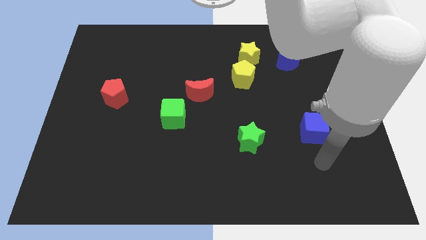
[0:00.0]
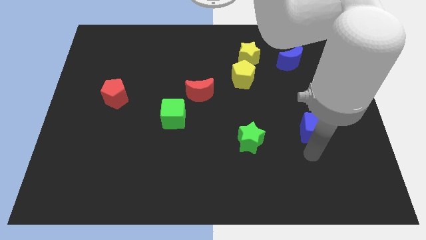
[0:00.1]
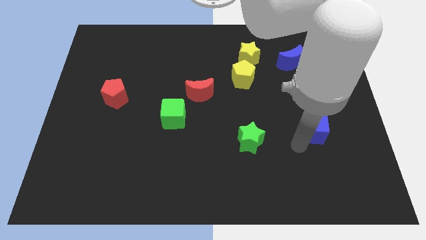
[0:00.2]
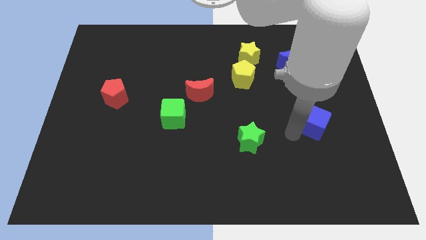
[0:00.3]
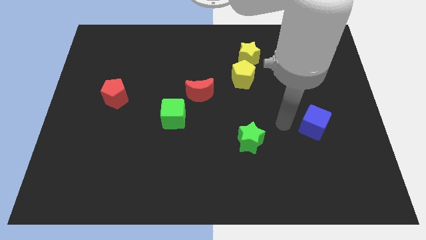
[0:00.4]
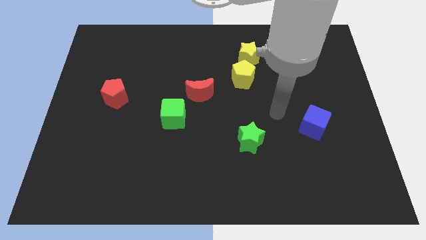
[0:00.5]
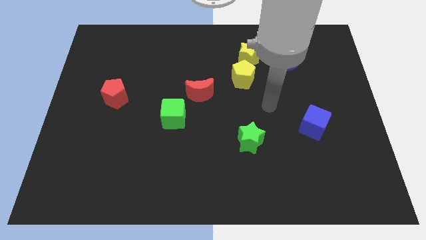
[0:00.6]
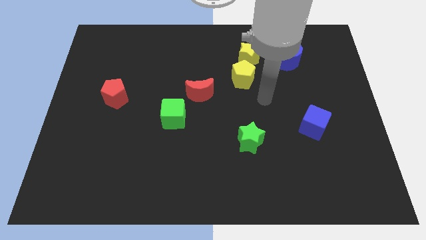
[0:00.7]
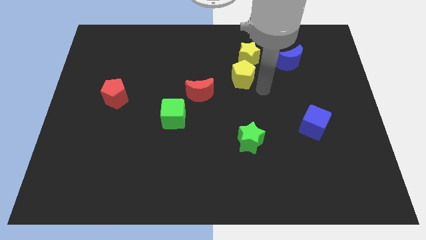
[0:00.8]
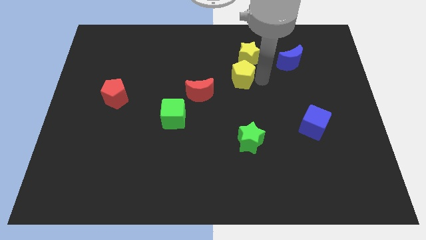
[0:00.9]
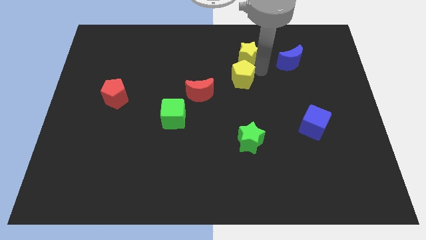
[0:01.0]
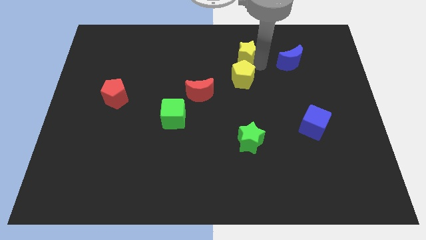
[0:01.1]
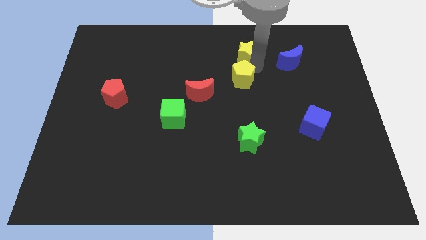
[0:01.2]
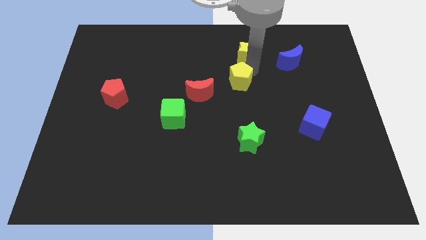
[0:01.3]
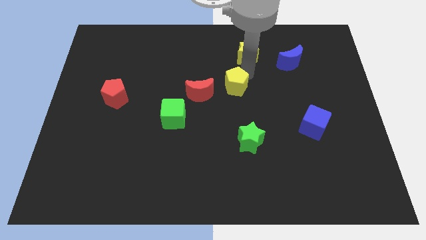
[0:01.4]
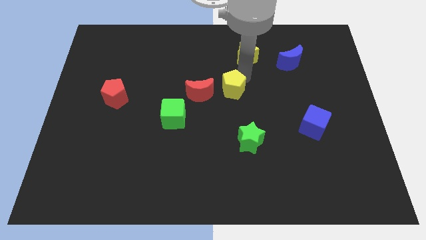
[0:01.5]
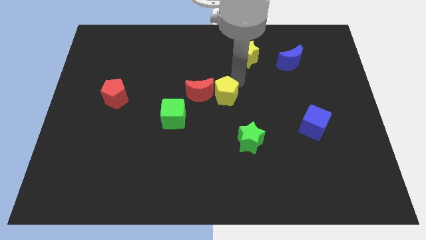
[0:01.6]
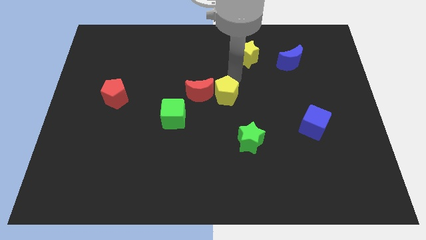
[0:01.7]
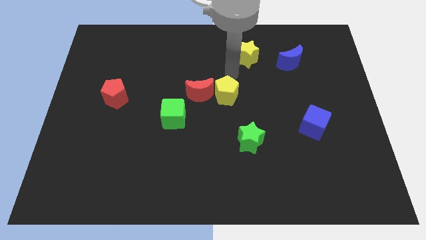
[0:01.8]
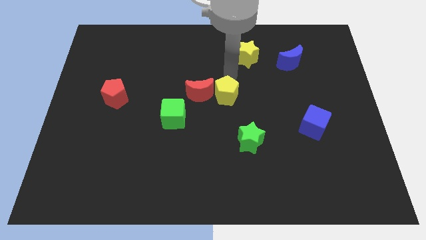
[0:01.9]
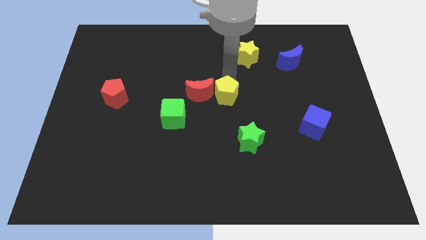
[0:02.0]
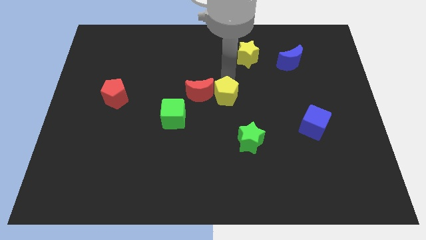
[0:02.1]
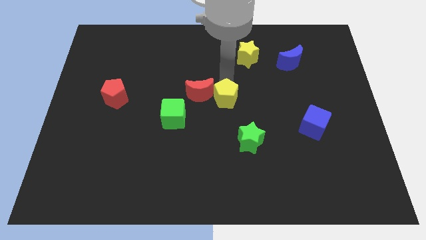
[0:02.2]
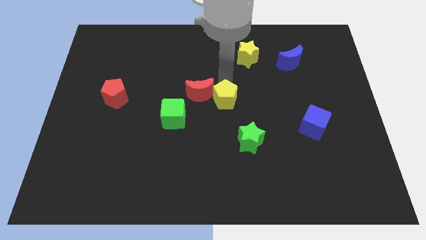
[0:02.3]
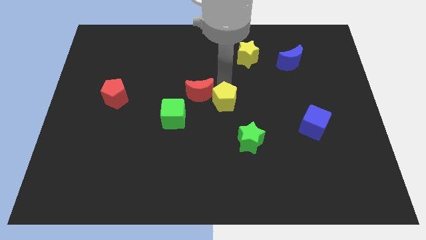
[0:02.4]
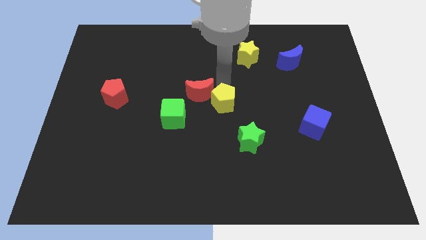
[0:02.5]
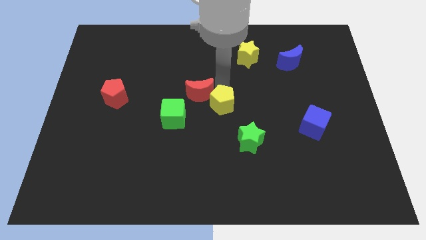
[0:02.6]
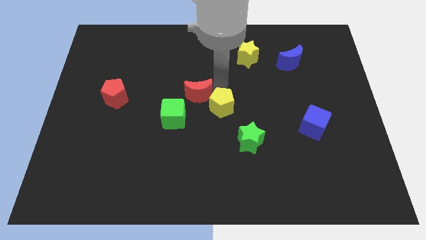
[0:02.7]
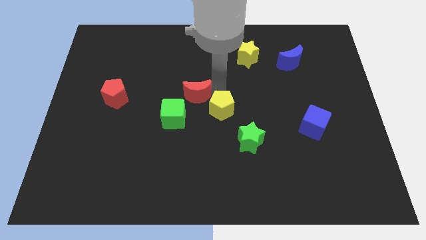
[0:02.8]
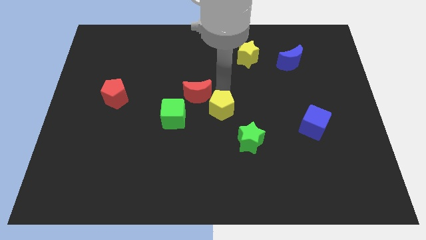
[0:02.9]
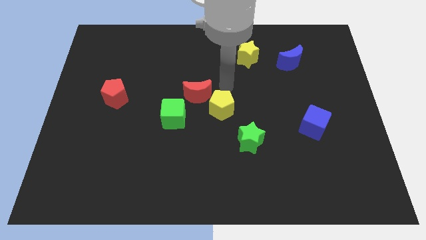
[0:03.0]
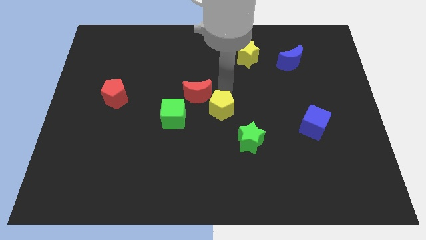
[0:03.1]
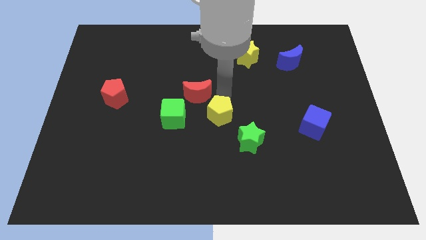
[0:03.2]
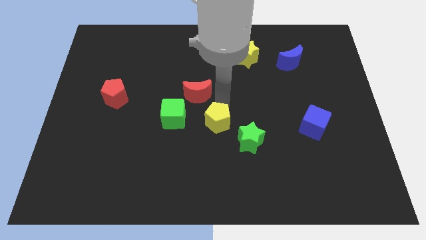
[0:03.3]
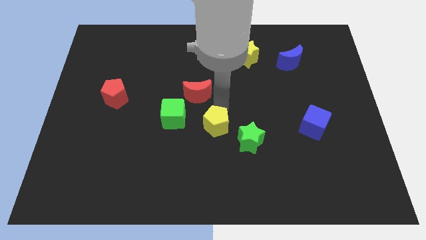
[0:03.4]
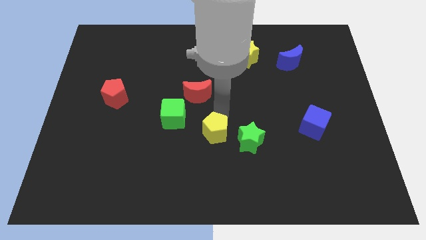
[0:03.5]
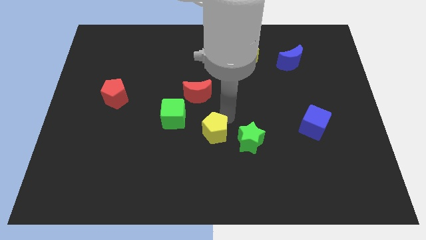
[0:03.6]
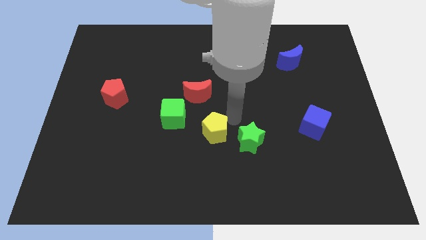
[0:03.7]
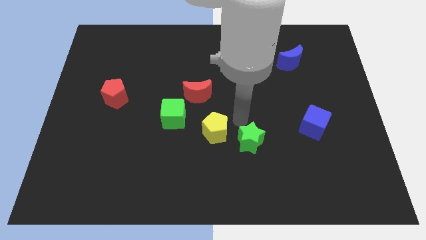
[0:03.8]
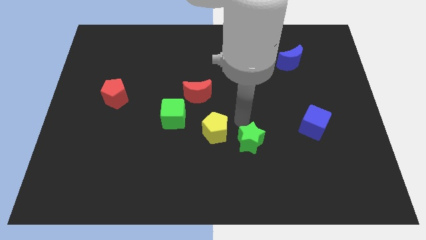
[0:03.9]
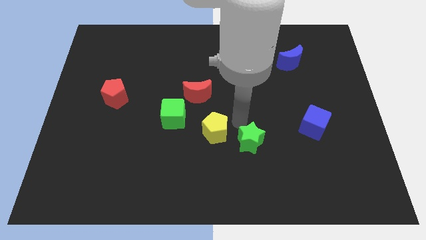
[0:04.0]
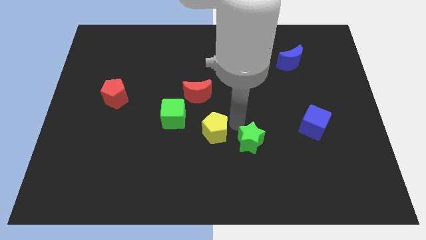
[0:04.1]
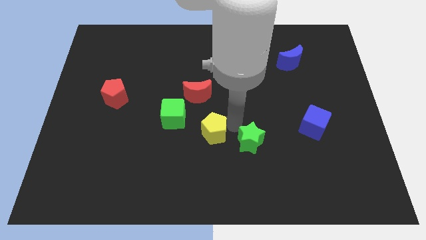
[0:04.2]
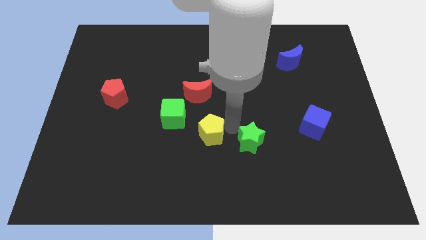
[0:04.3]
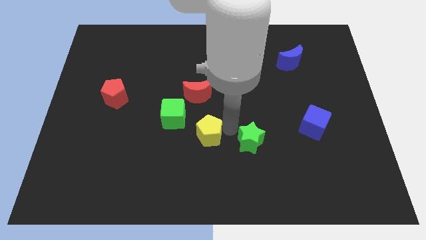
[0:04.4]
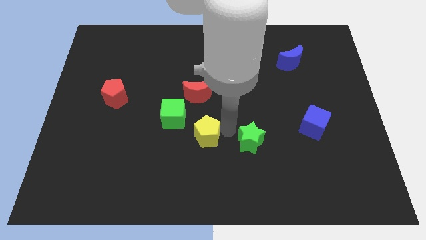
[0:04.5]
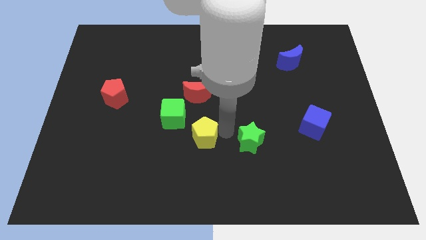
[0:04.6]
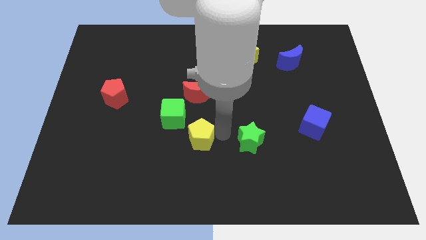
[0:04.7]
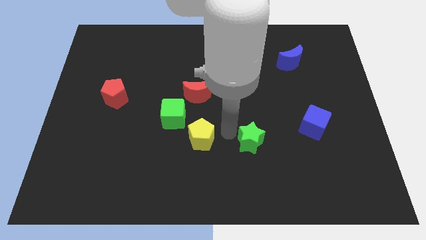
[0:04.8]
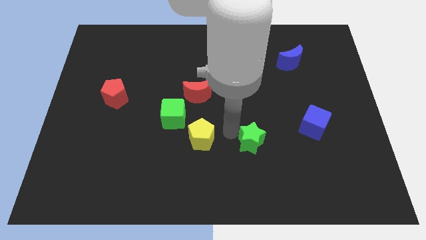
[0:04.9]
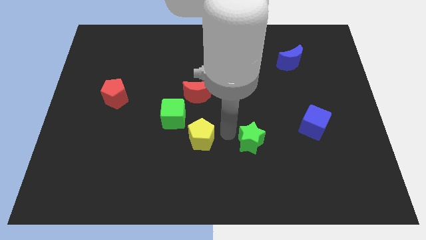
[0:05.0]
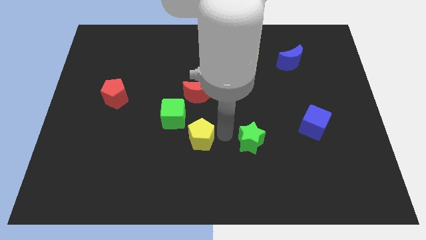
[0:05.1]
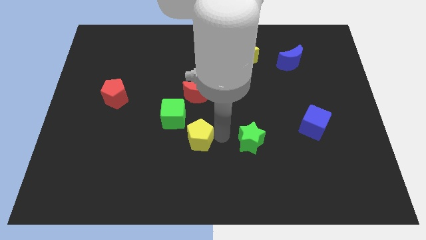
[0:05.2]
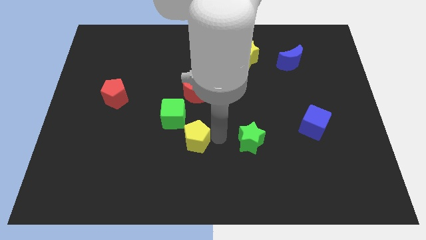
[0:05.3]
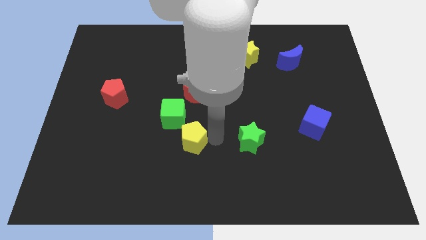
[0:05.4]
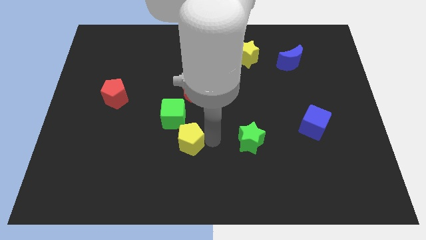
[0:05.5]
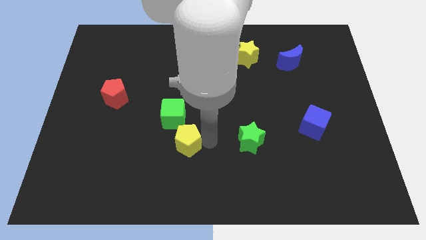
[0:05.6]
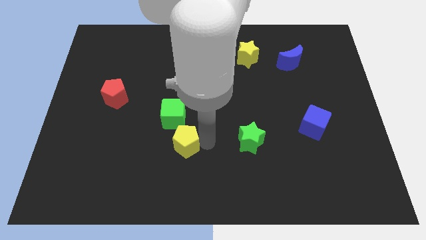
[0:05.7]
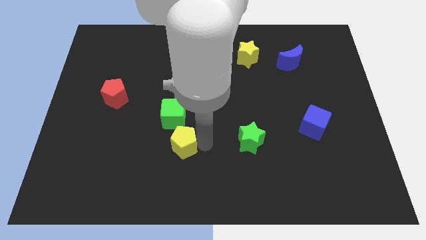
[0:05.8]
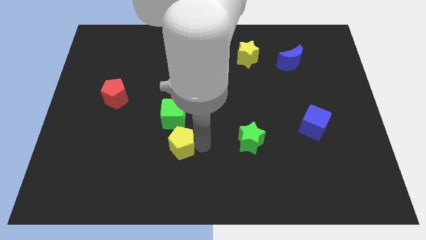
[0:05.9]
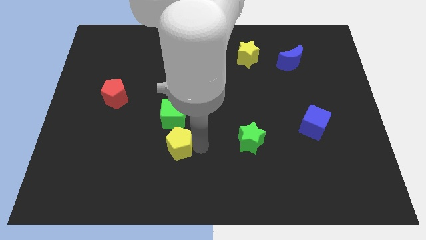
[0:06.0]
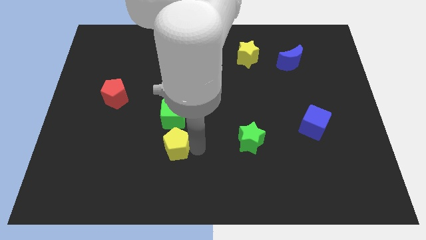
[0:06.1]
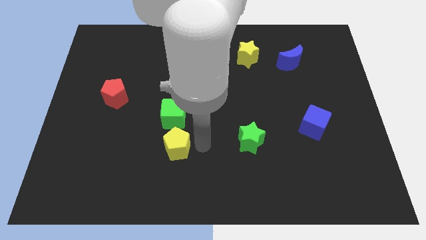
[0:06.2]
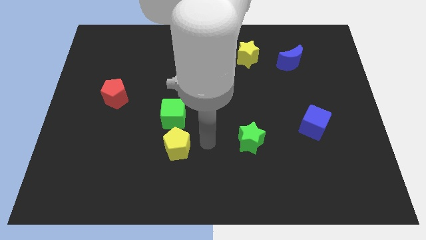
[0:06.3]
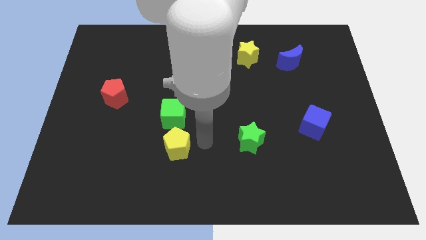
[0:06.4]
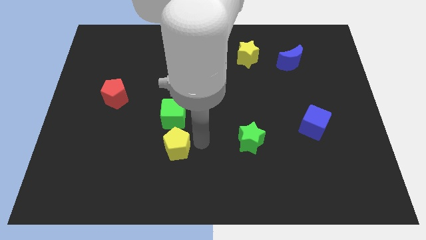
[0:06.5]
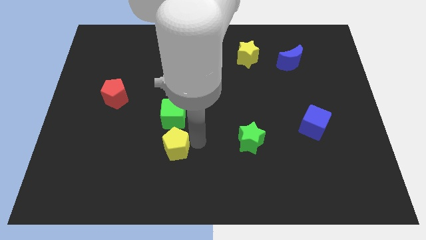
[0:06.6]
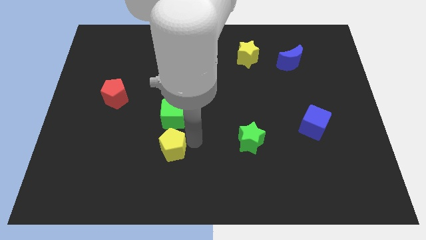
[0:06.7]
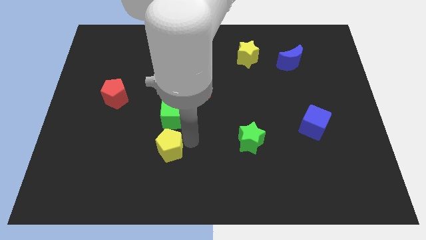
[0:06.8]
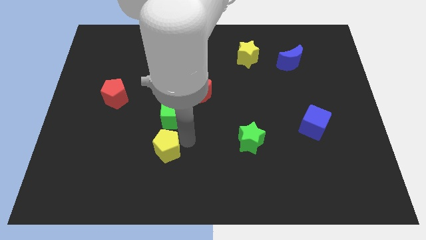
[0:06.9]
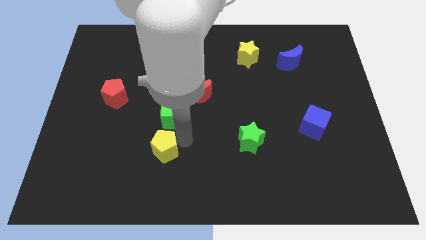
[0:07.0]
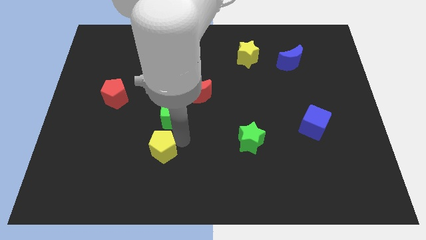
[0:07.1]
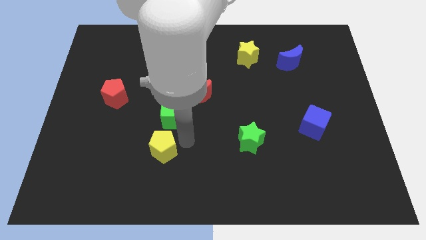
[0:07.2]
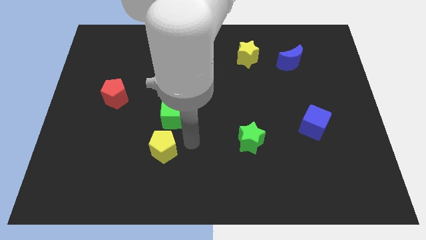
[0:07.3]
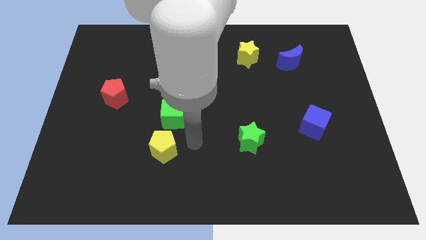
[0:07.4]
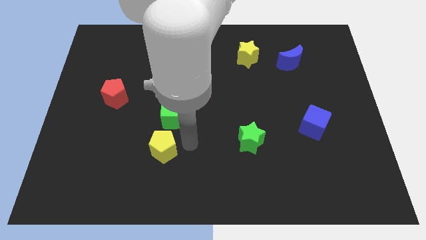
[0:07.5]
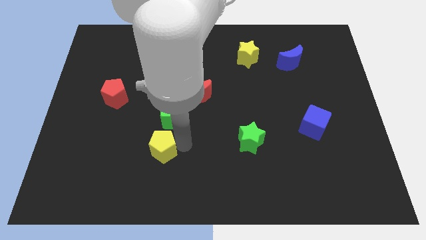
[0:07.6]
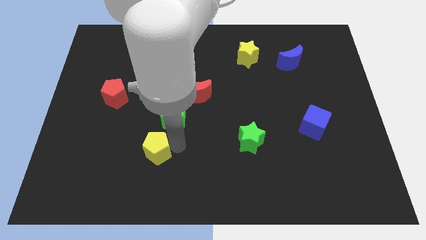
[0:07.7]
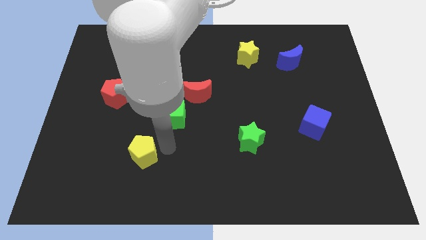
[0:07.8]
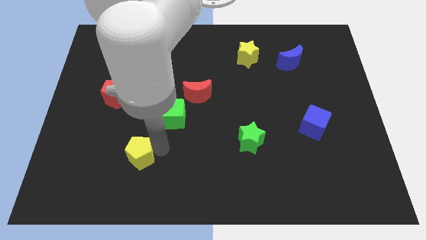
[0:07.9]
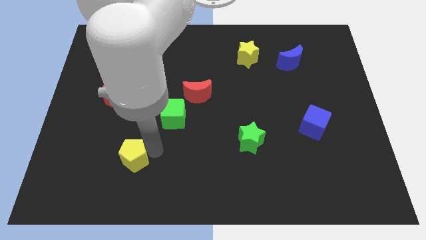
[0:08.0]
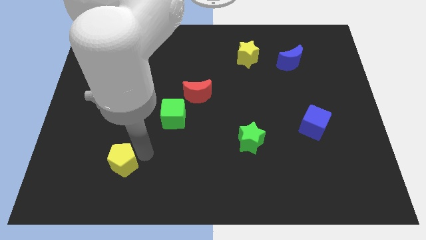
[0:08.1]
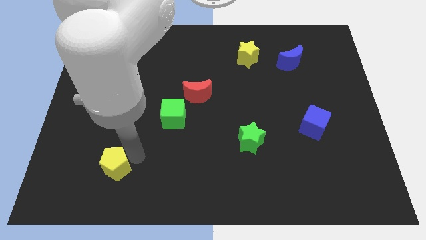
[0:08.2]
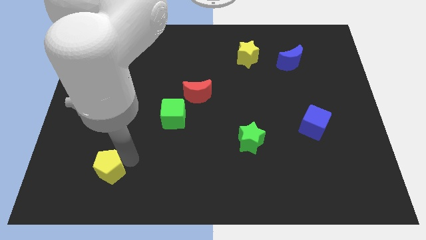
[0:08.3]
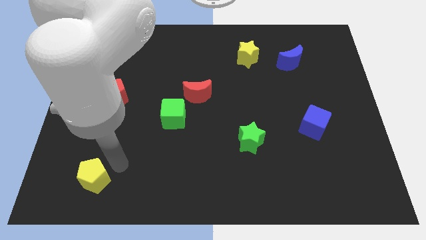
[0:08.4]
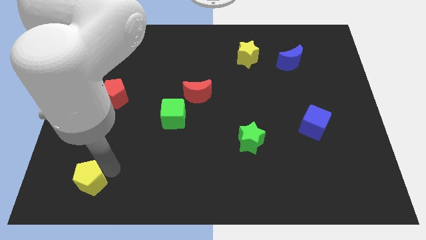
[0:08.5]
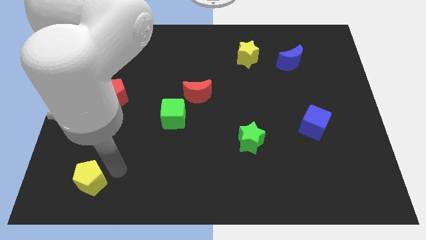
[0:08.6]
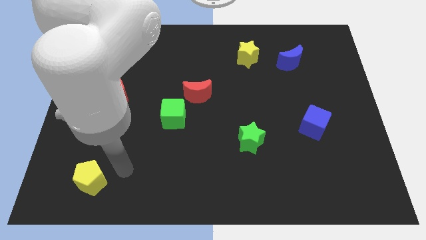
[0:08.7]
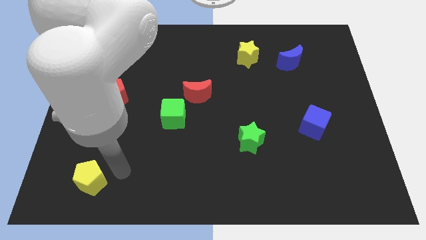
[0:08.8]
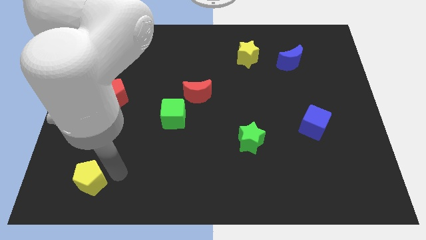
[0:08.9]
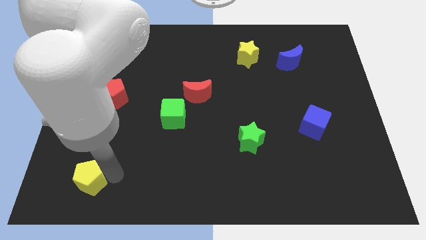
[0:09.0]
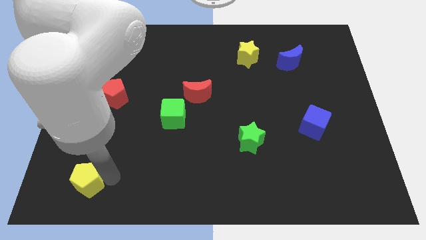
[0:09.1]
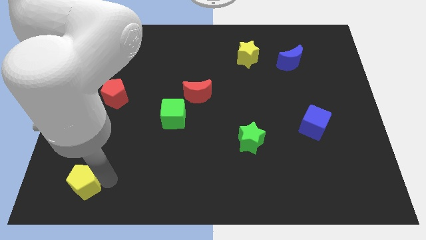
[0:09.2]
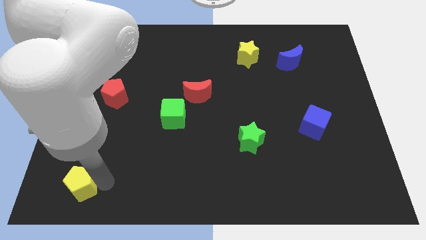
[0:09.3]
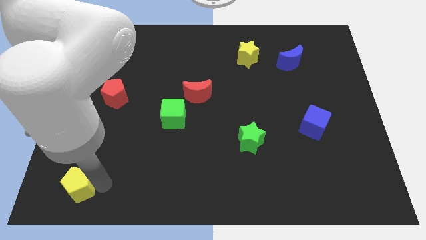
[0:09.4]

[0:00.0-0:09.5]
slide the yellow pentagon to the bottom left corner
